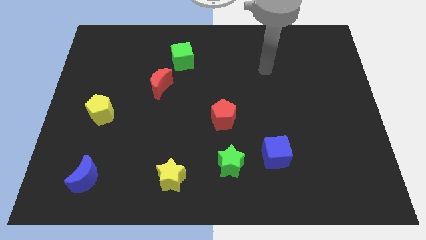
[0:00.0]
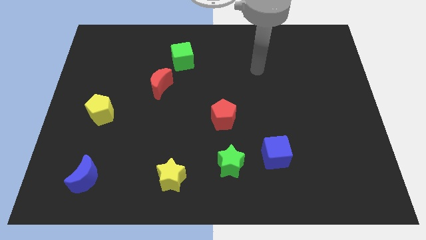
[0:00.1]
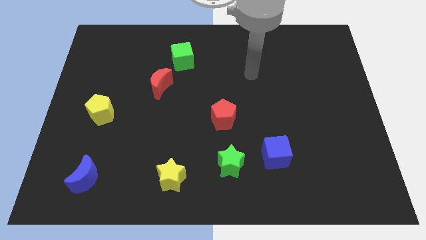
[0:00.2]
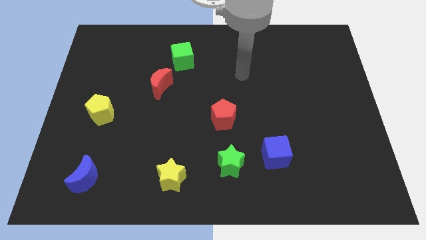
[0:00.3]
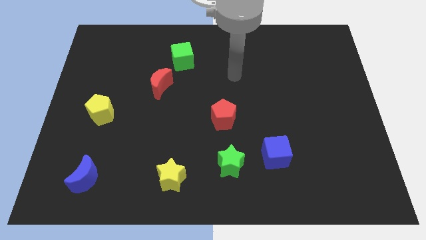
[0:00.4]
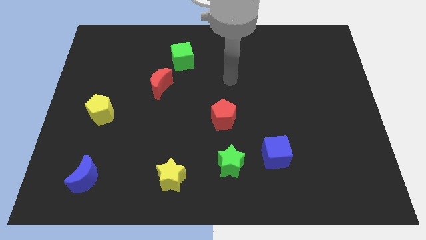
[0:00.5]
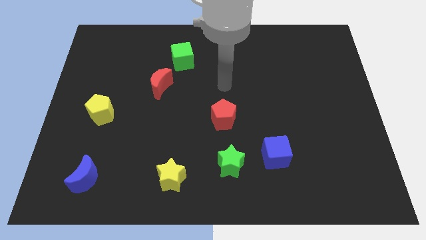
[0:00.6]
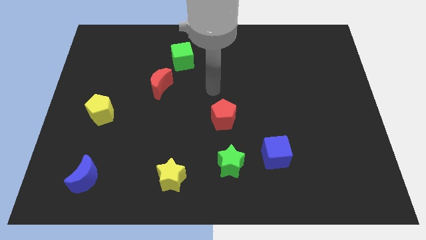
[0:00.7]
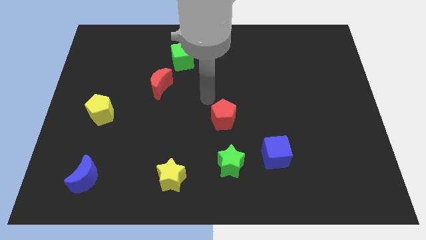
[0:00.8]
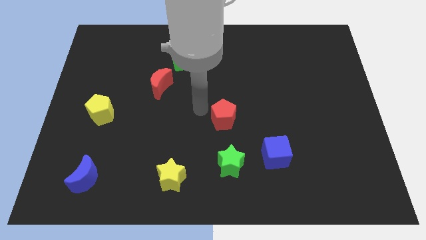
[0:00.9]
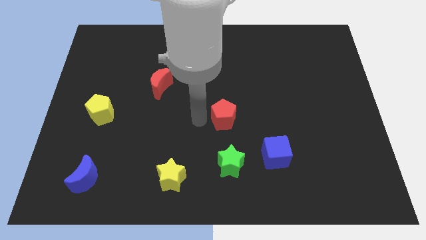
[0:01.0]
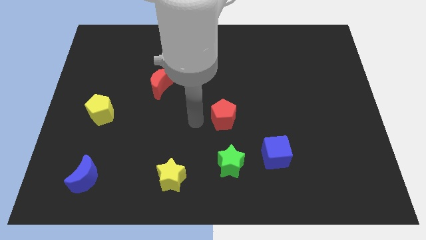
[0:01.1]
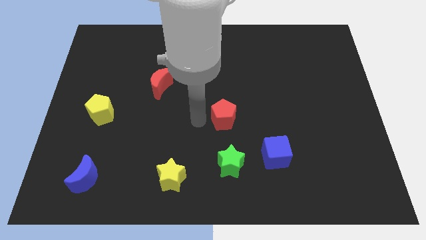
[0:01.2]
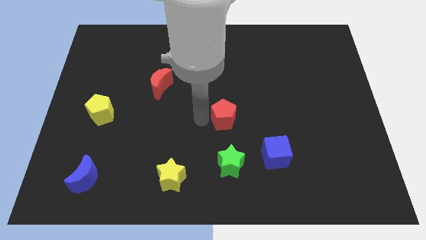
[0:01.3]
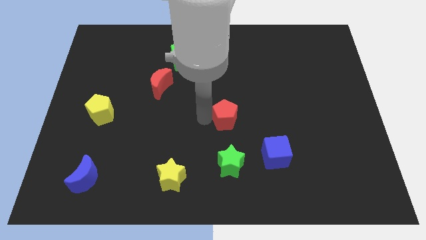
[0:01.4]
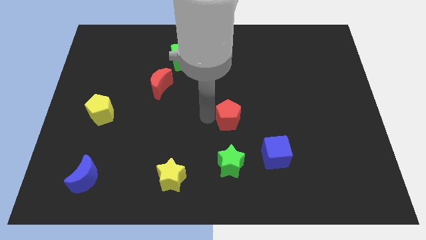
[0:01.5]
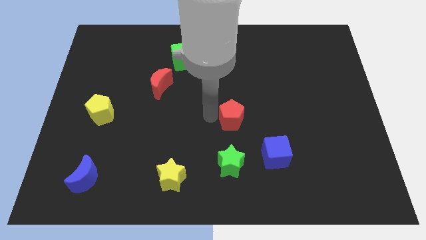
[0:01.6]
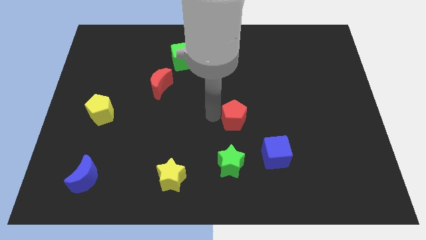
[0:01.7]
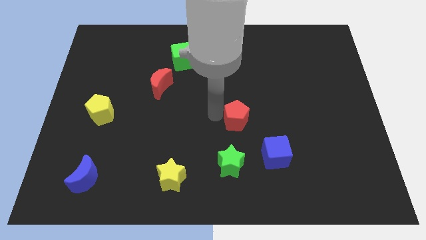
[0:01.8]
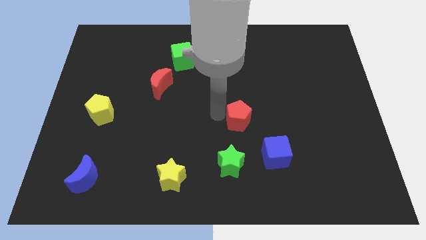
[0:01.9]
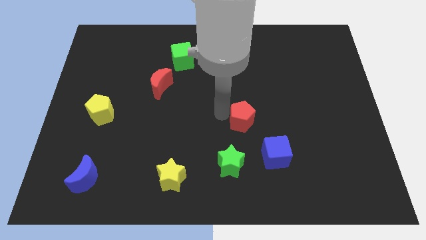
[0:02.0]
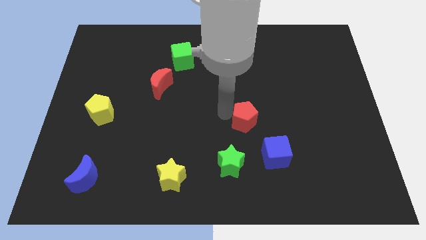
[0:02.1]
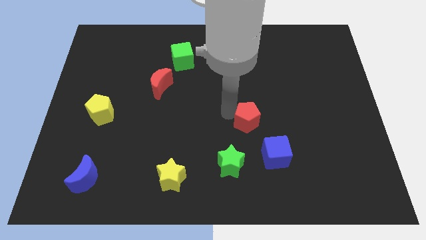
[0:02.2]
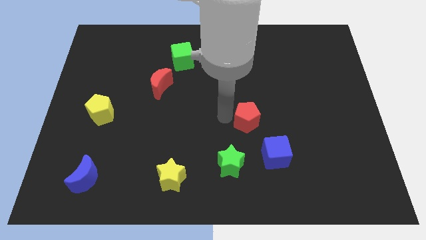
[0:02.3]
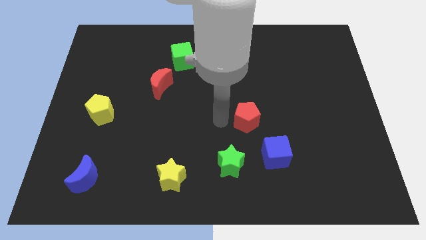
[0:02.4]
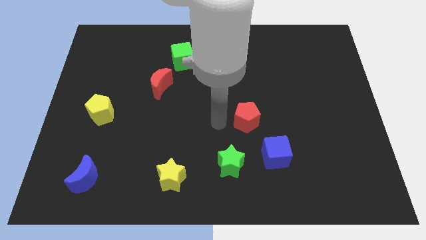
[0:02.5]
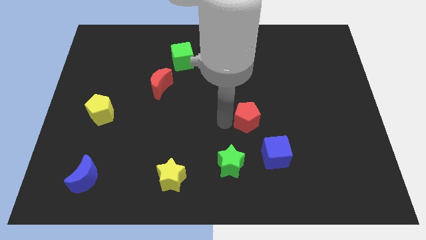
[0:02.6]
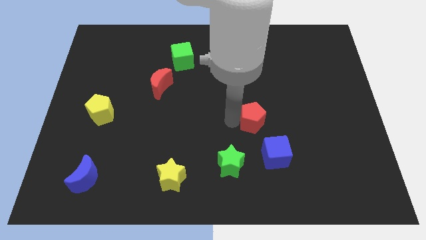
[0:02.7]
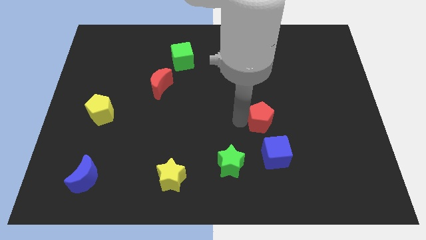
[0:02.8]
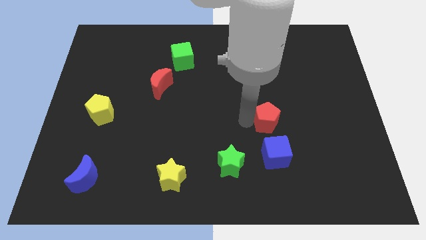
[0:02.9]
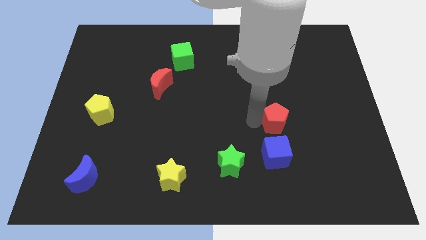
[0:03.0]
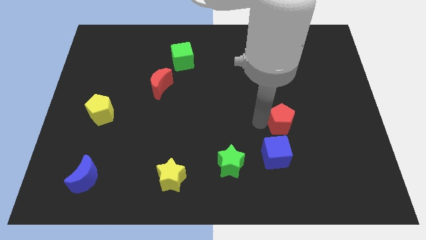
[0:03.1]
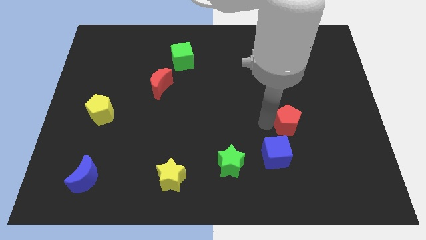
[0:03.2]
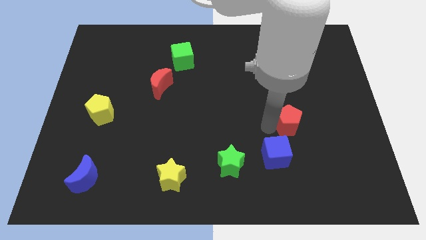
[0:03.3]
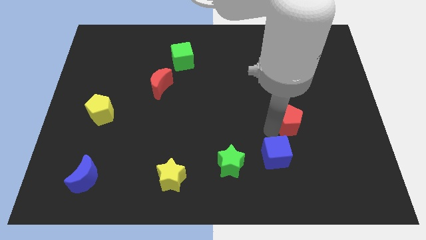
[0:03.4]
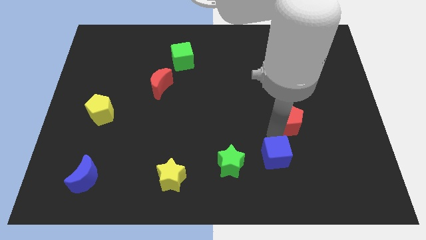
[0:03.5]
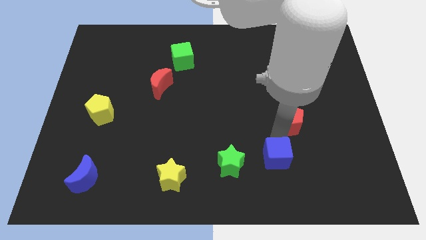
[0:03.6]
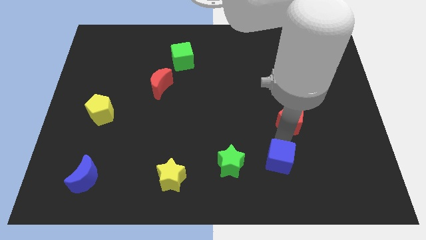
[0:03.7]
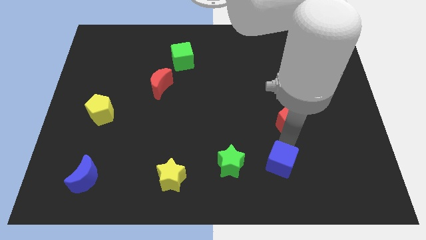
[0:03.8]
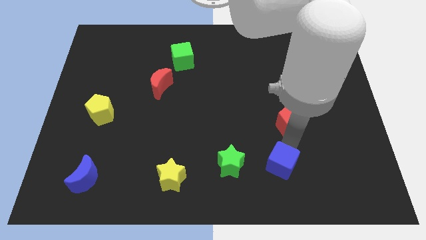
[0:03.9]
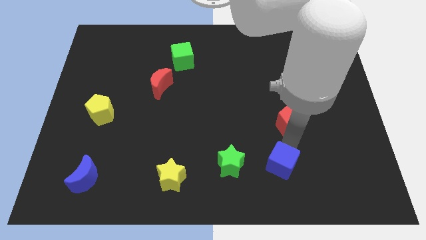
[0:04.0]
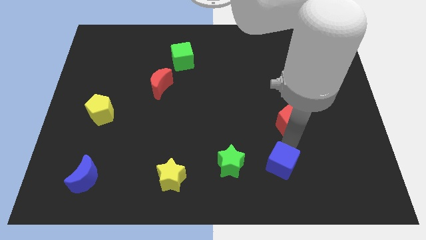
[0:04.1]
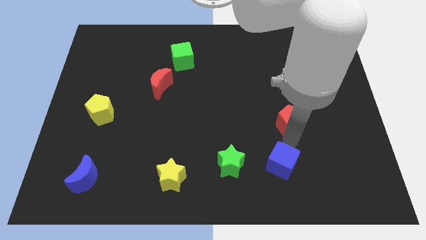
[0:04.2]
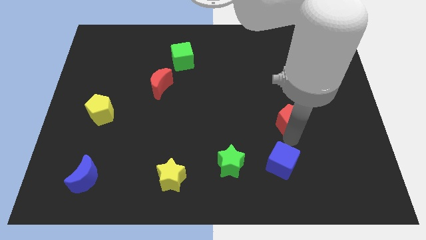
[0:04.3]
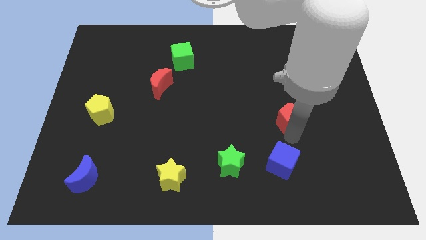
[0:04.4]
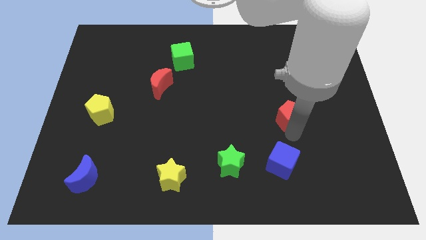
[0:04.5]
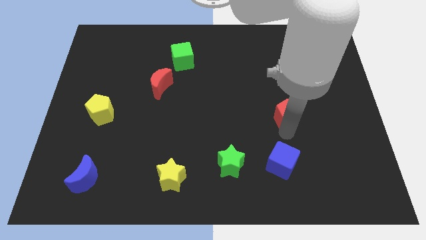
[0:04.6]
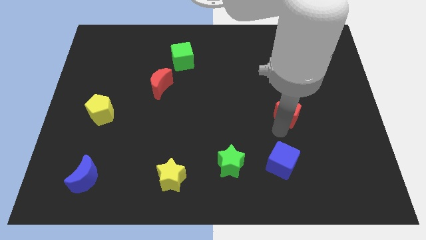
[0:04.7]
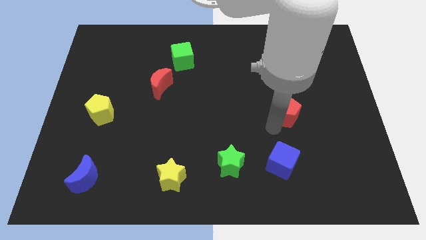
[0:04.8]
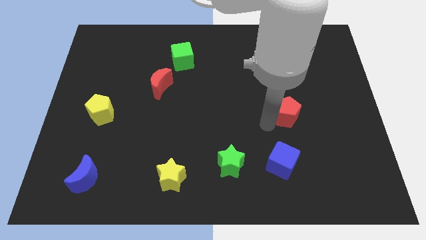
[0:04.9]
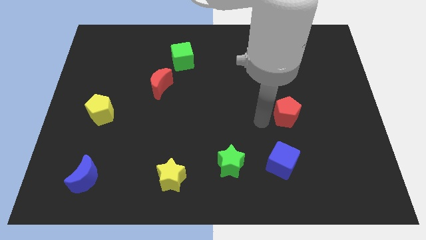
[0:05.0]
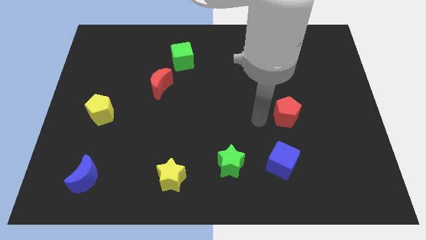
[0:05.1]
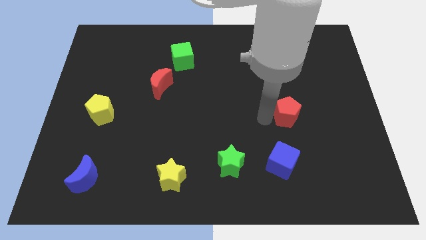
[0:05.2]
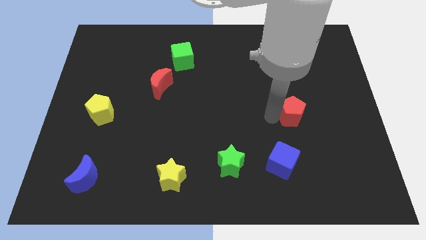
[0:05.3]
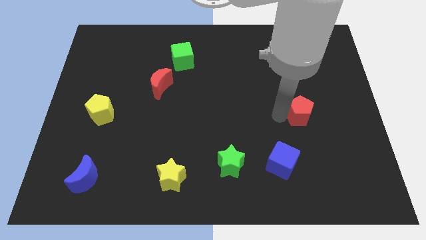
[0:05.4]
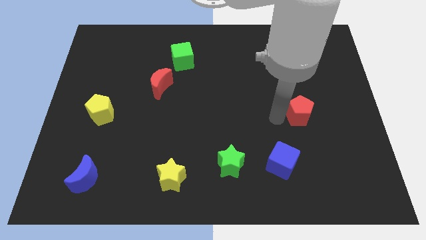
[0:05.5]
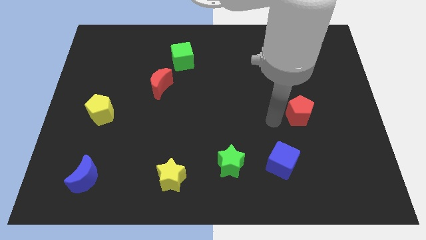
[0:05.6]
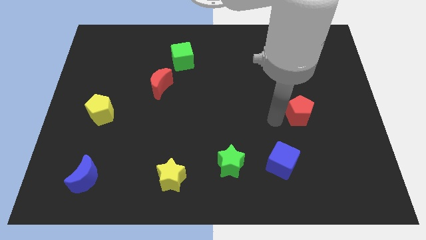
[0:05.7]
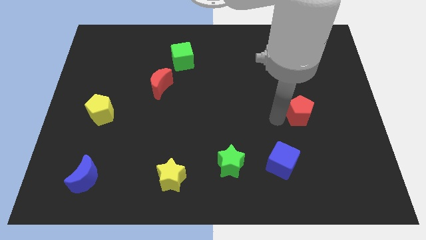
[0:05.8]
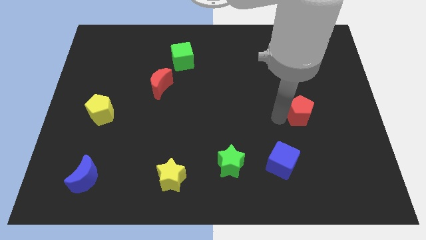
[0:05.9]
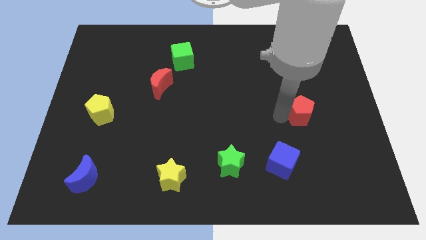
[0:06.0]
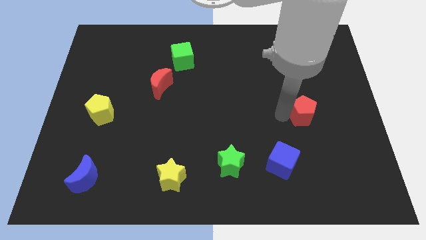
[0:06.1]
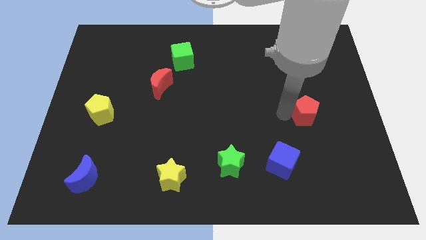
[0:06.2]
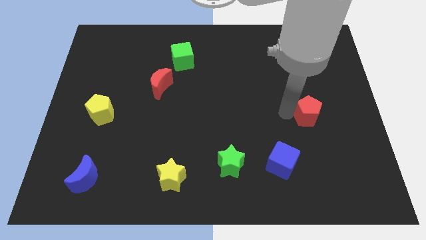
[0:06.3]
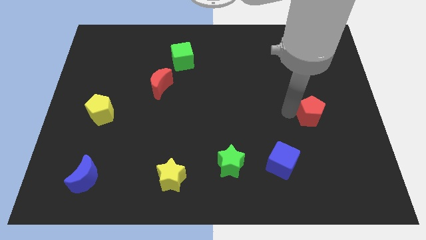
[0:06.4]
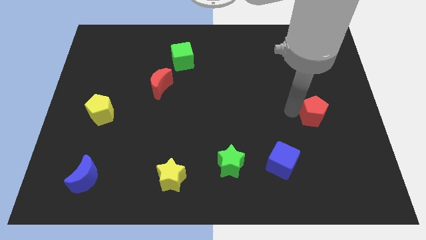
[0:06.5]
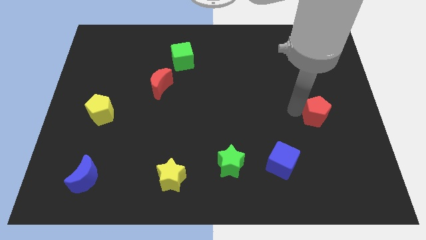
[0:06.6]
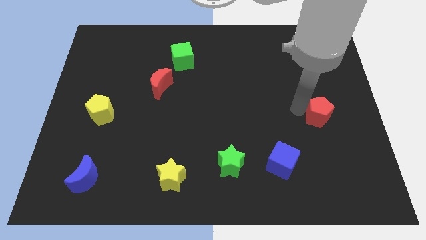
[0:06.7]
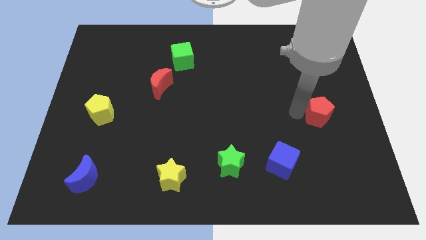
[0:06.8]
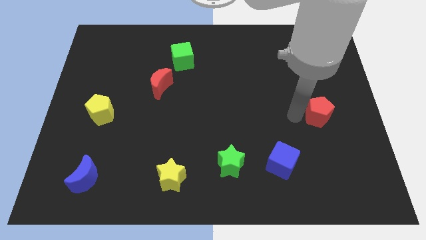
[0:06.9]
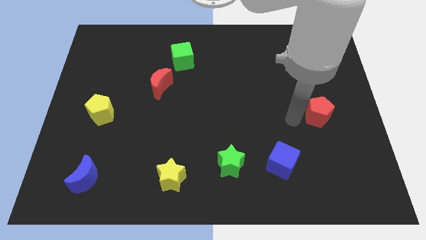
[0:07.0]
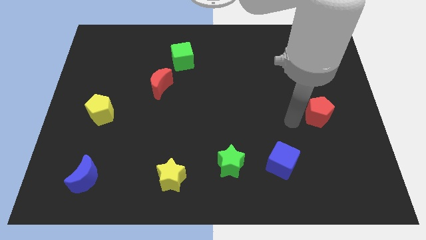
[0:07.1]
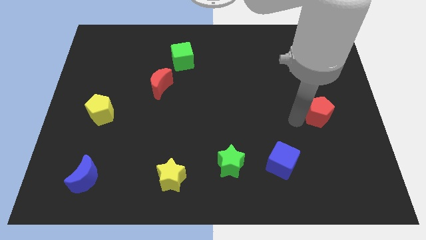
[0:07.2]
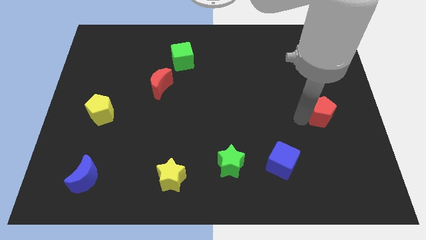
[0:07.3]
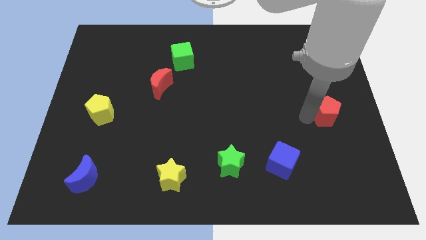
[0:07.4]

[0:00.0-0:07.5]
put the red pentagon to the right side of the board
